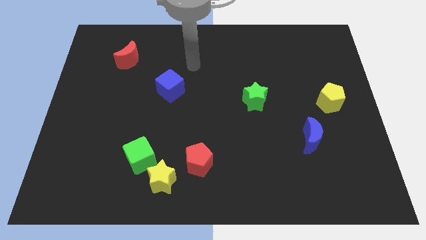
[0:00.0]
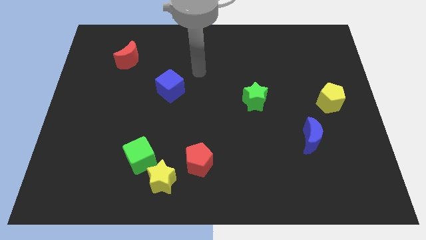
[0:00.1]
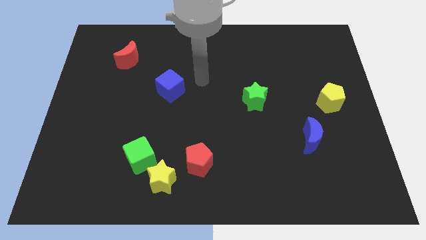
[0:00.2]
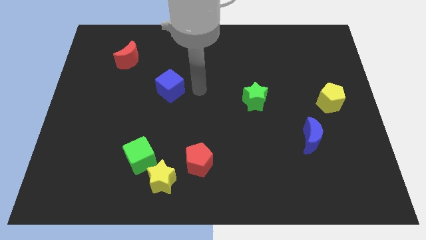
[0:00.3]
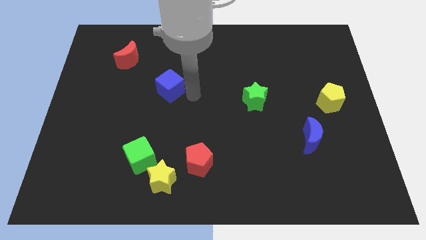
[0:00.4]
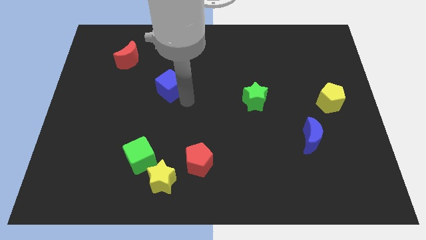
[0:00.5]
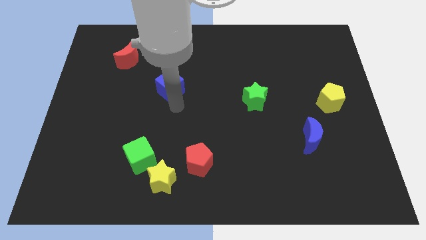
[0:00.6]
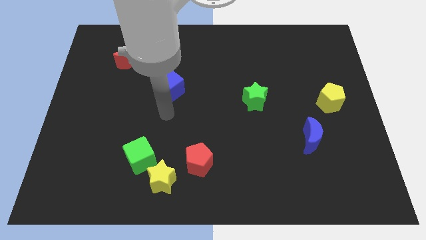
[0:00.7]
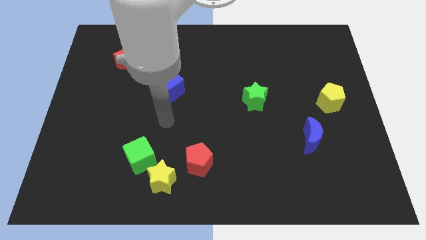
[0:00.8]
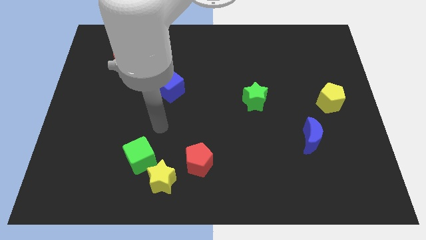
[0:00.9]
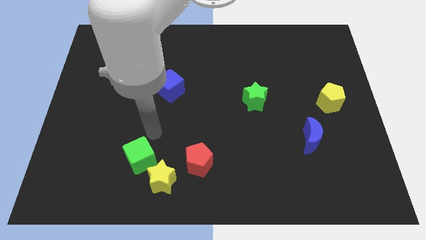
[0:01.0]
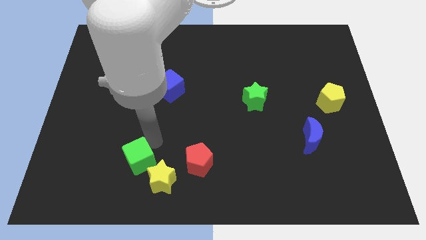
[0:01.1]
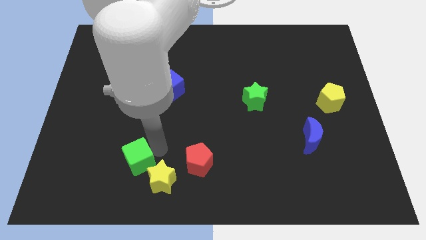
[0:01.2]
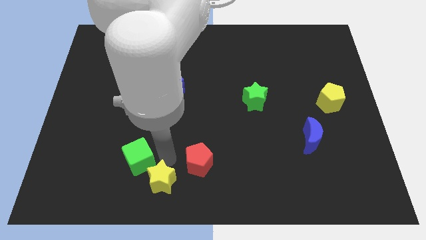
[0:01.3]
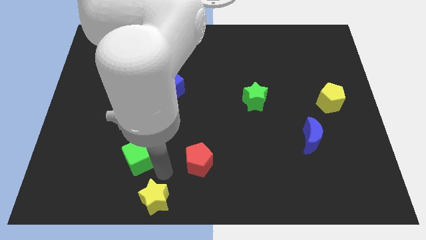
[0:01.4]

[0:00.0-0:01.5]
pull the green cube apart from the yellow star

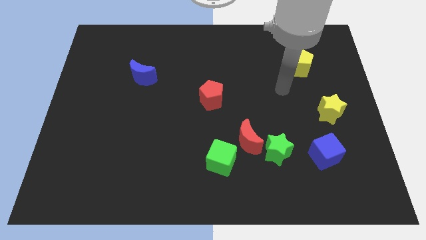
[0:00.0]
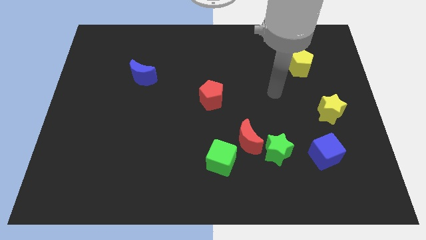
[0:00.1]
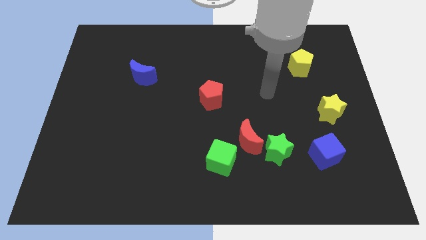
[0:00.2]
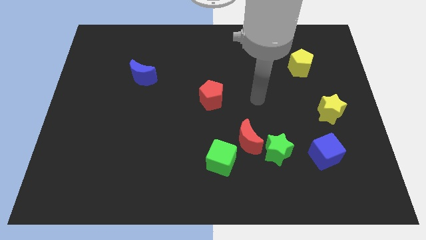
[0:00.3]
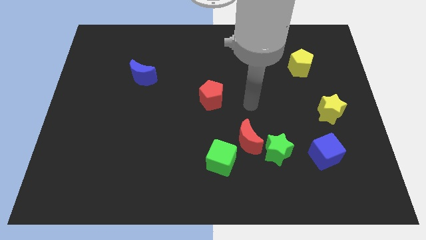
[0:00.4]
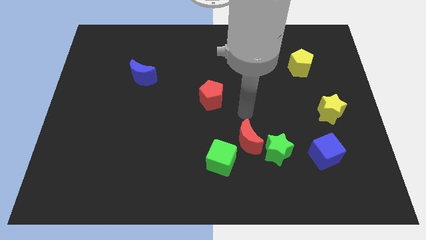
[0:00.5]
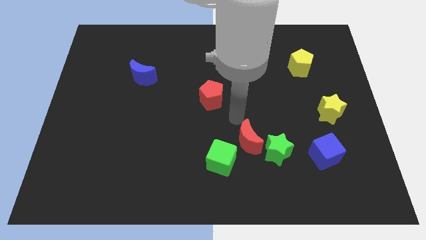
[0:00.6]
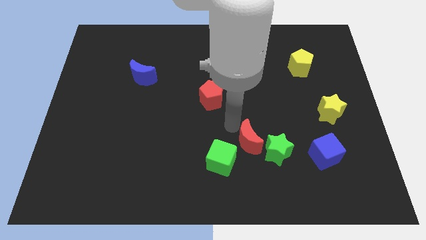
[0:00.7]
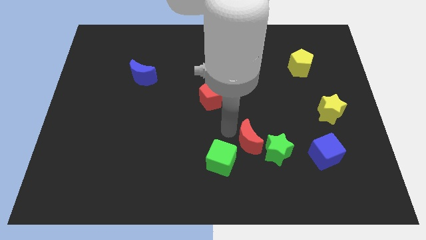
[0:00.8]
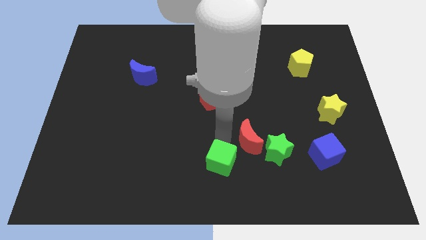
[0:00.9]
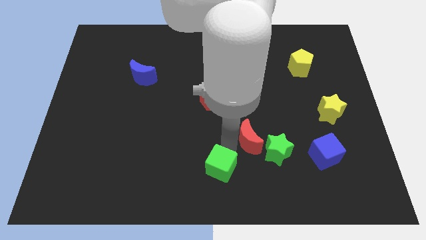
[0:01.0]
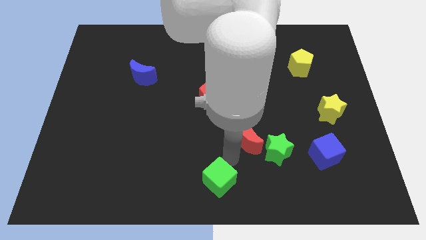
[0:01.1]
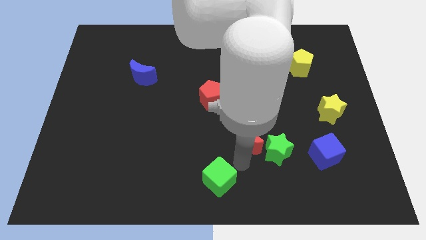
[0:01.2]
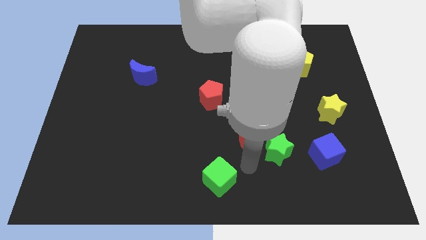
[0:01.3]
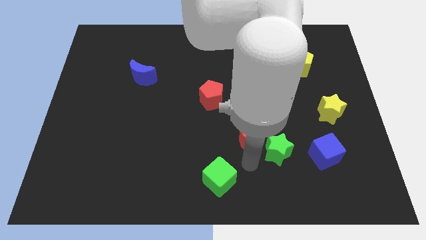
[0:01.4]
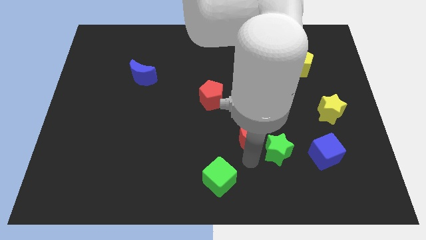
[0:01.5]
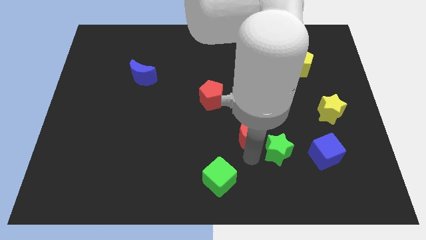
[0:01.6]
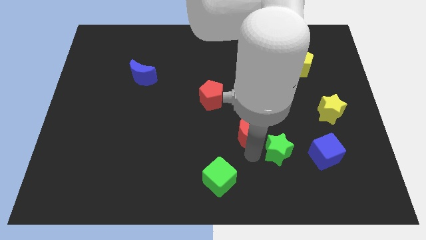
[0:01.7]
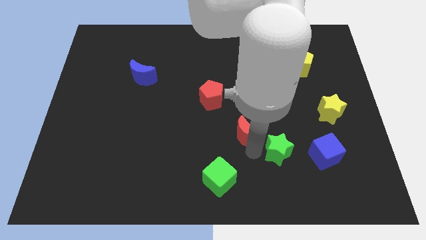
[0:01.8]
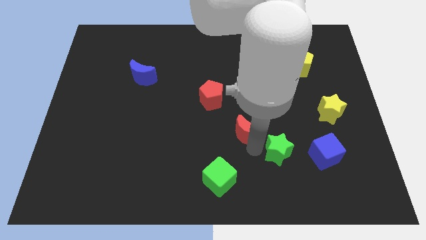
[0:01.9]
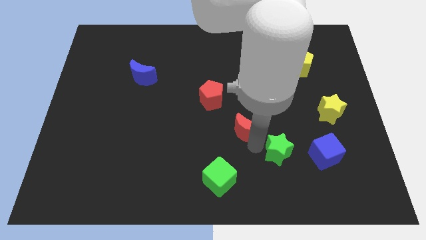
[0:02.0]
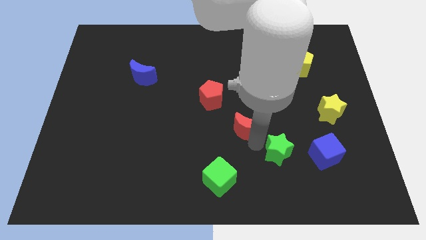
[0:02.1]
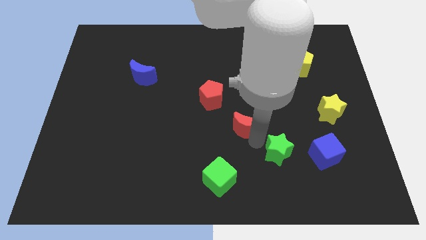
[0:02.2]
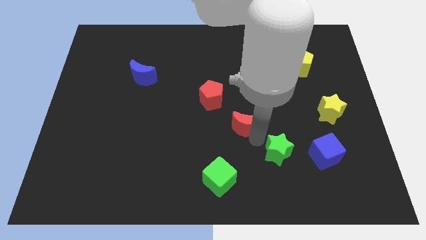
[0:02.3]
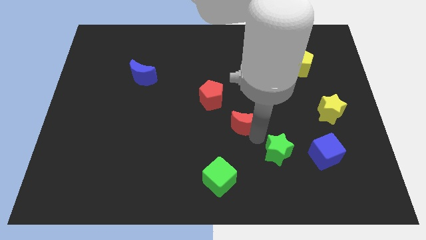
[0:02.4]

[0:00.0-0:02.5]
move the red moon away from the green star and green cube

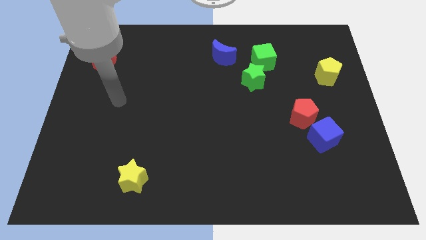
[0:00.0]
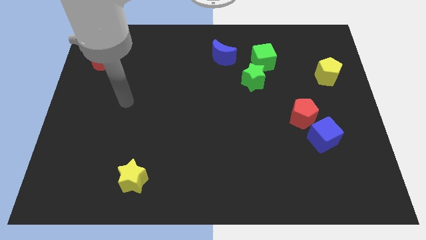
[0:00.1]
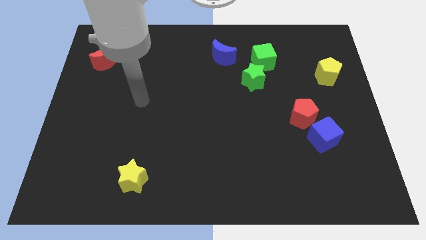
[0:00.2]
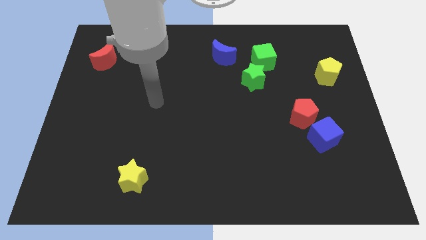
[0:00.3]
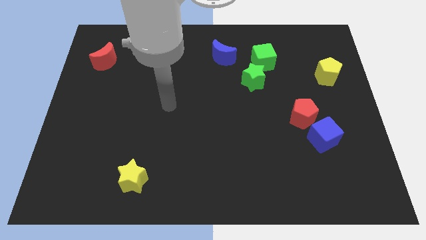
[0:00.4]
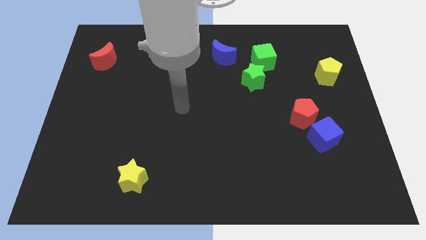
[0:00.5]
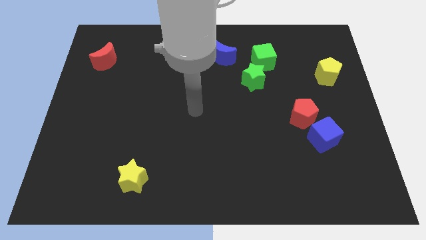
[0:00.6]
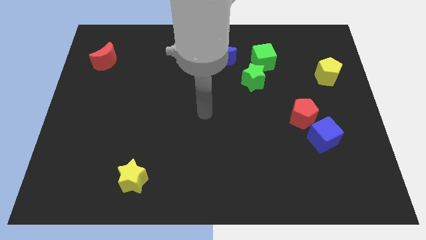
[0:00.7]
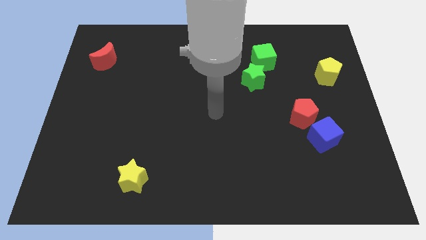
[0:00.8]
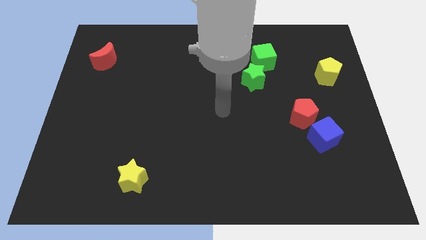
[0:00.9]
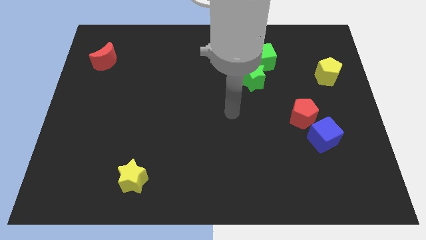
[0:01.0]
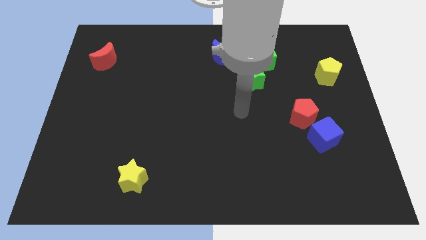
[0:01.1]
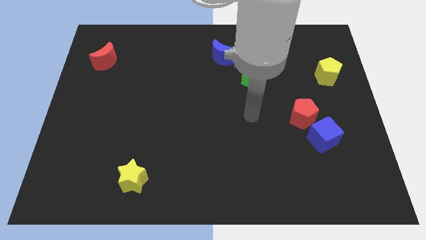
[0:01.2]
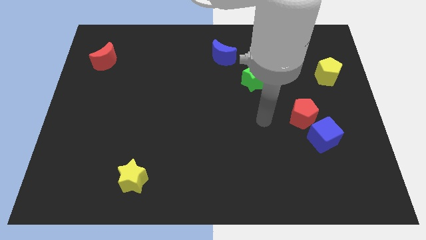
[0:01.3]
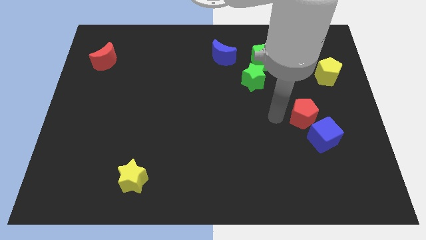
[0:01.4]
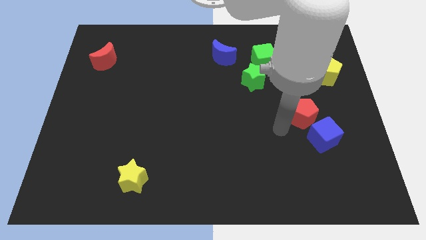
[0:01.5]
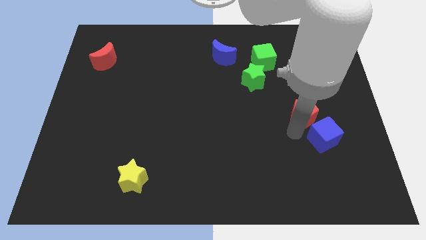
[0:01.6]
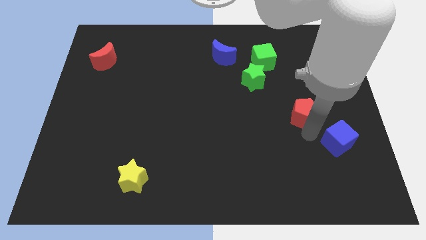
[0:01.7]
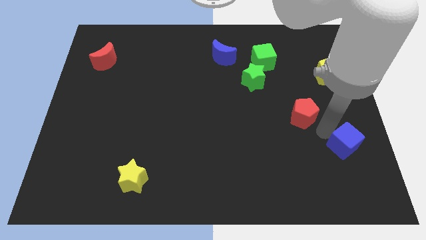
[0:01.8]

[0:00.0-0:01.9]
move the red pentagon away from the blue cube

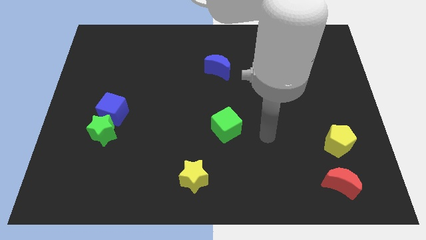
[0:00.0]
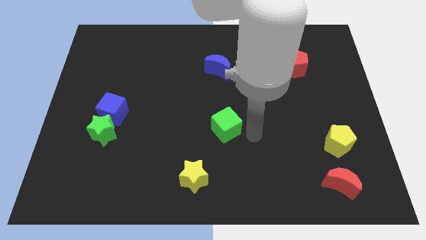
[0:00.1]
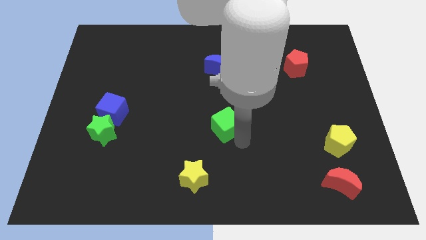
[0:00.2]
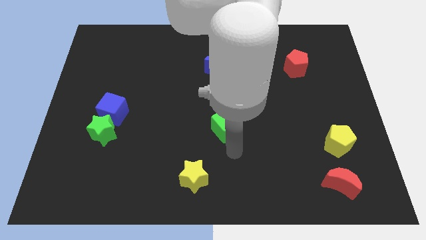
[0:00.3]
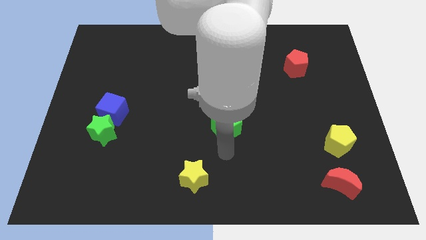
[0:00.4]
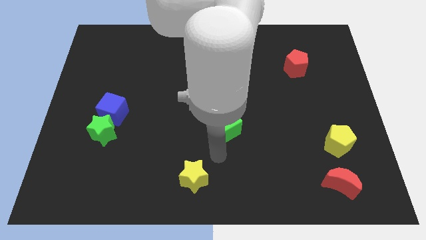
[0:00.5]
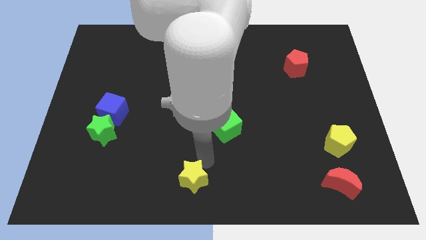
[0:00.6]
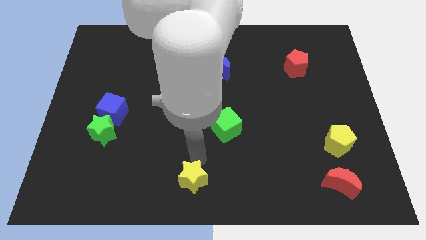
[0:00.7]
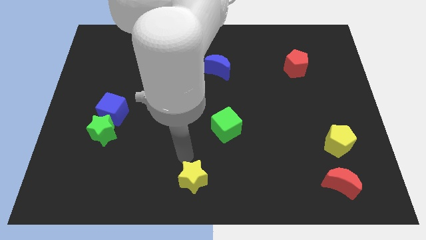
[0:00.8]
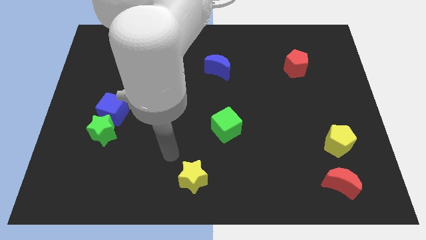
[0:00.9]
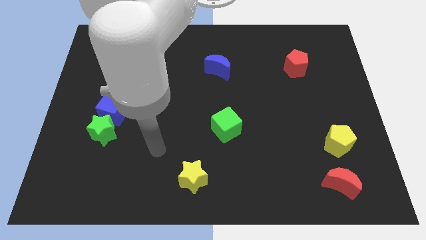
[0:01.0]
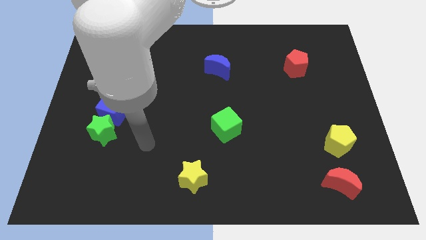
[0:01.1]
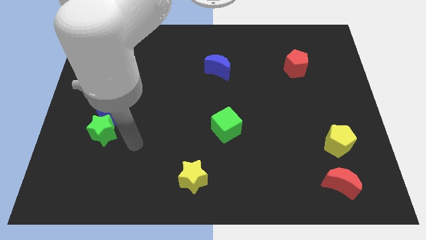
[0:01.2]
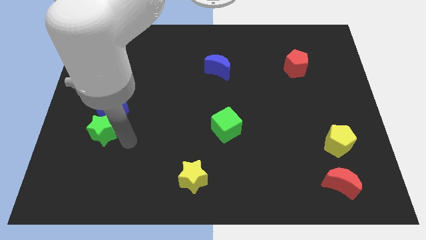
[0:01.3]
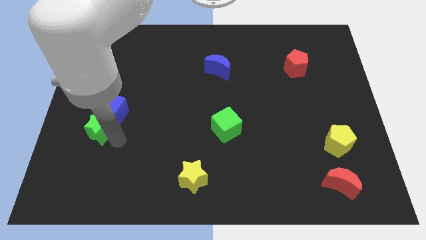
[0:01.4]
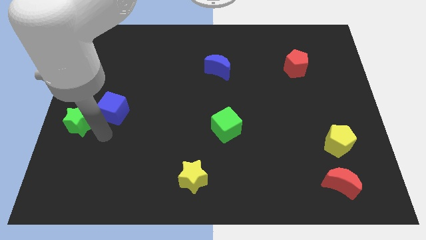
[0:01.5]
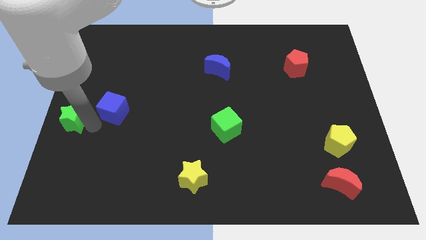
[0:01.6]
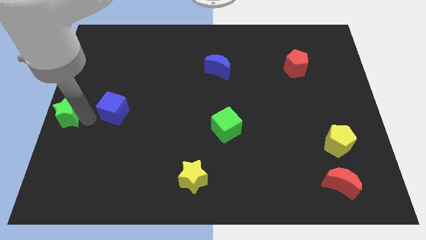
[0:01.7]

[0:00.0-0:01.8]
separate the blue cube from the green star

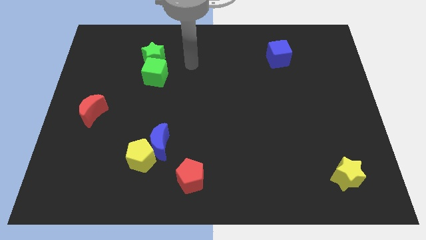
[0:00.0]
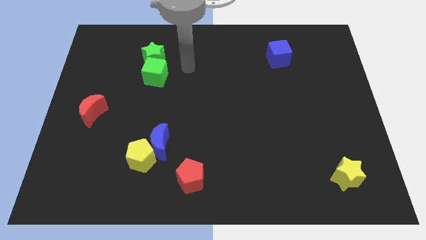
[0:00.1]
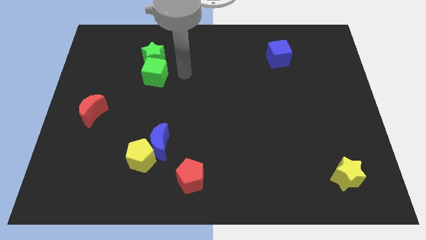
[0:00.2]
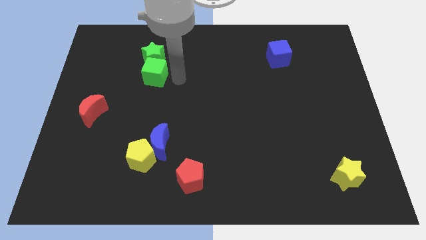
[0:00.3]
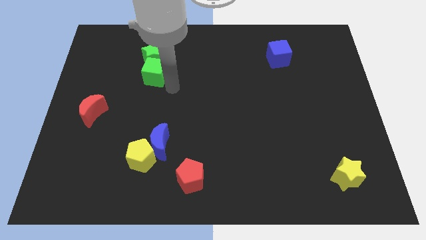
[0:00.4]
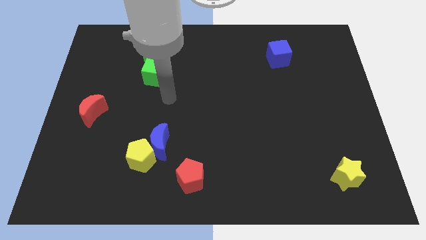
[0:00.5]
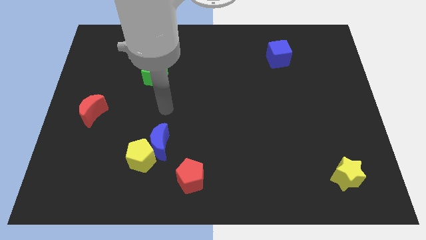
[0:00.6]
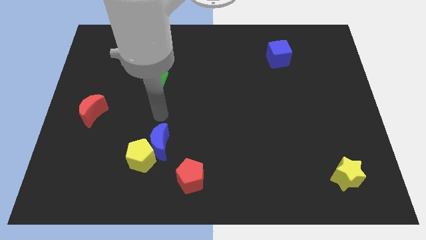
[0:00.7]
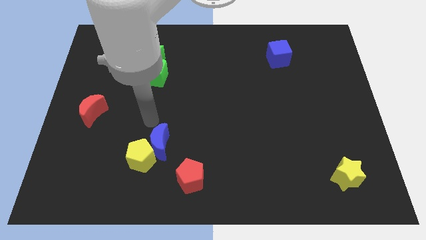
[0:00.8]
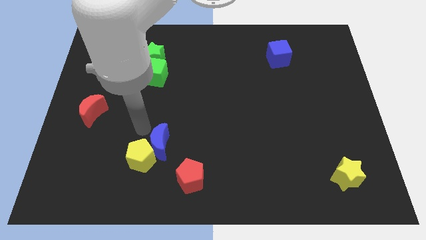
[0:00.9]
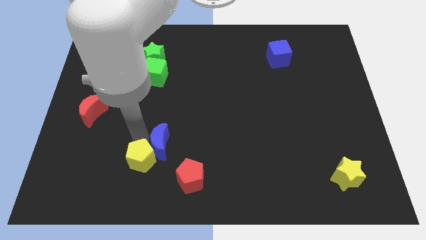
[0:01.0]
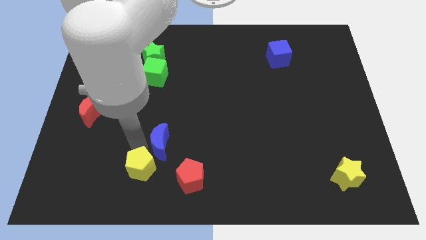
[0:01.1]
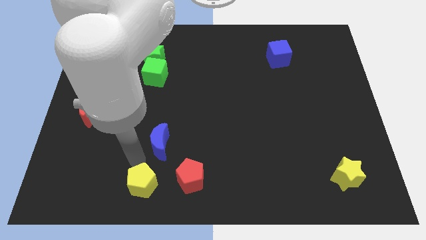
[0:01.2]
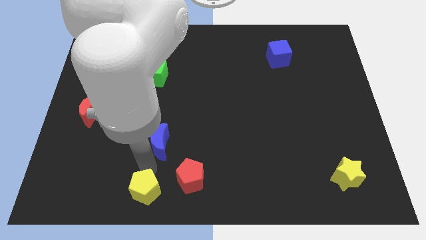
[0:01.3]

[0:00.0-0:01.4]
separate the blue moon from the yellow pentagon

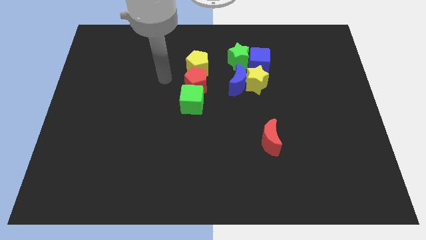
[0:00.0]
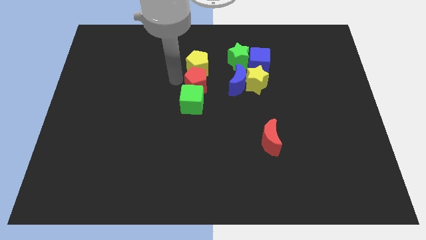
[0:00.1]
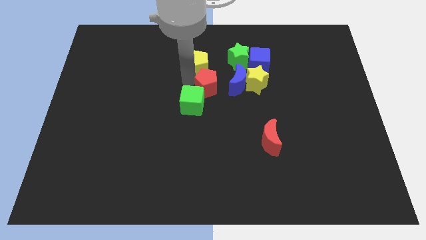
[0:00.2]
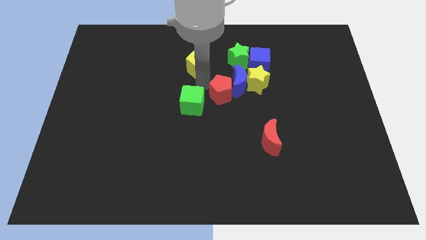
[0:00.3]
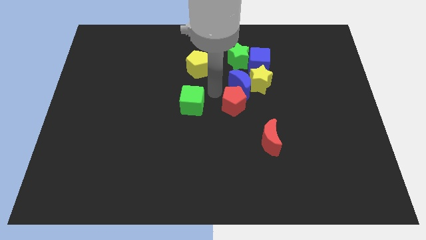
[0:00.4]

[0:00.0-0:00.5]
move the green cube away from the red pentagon
